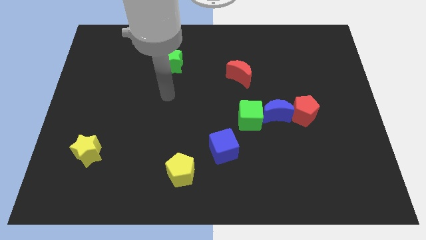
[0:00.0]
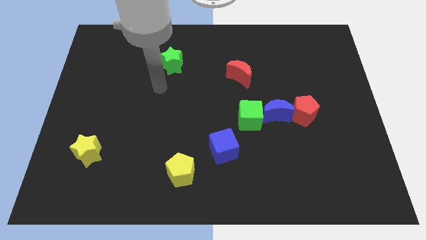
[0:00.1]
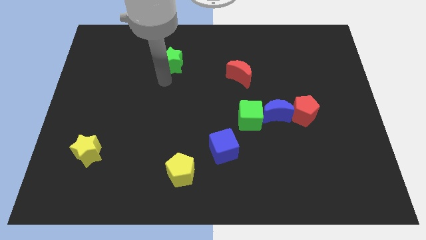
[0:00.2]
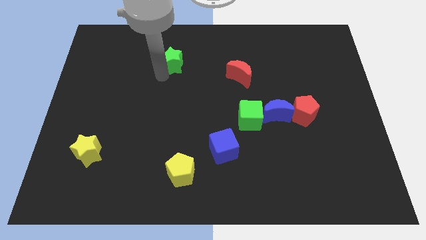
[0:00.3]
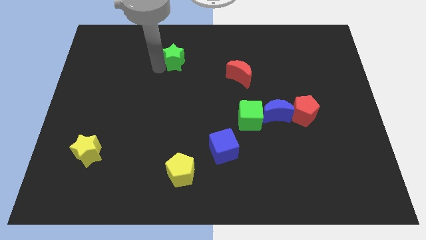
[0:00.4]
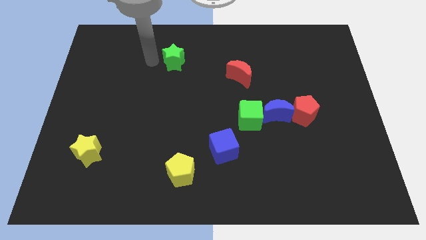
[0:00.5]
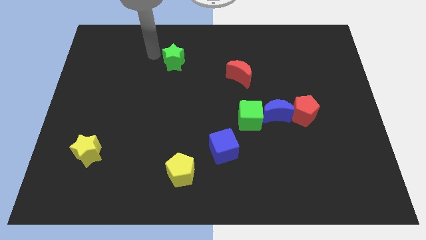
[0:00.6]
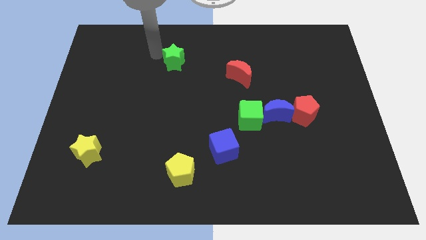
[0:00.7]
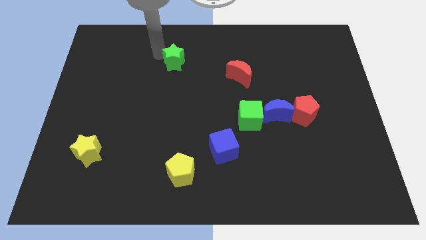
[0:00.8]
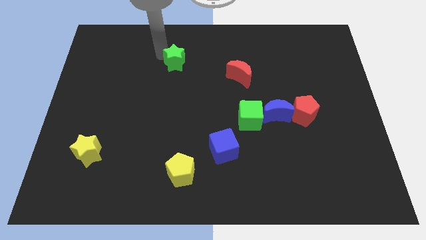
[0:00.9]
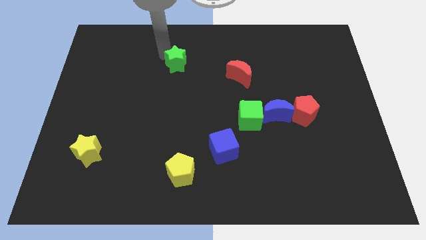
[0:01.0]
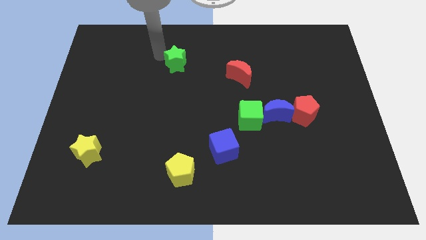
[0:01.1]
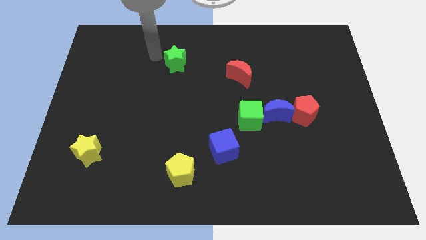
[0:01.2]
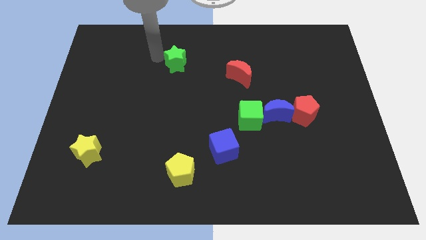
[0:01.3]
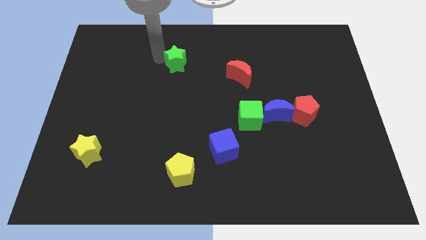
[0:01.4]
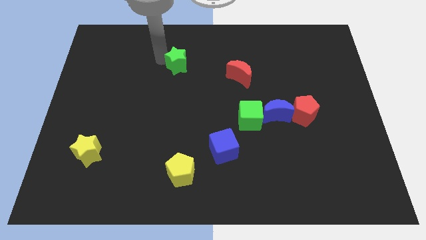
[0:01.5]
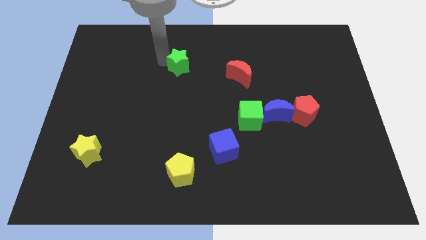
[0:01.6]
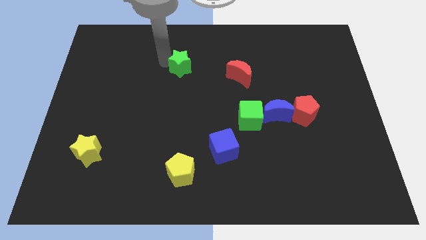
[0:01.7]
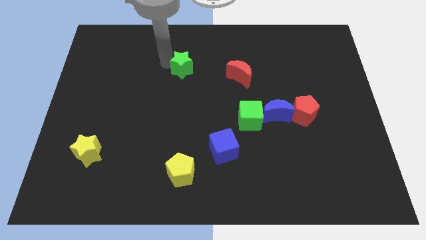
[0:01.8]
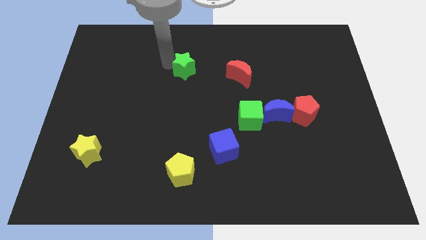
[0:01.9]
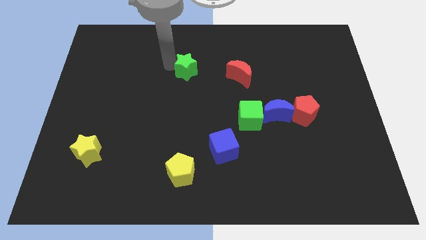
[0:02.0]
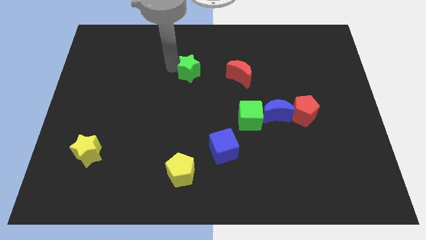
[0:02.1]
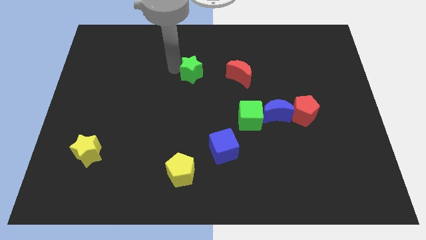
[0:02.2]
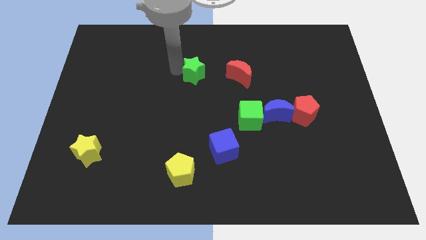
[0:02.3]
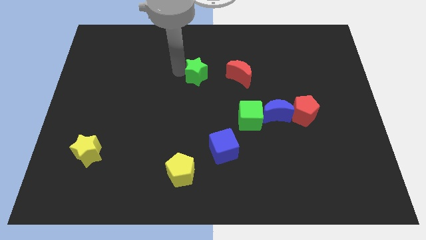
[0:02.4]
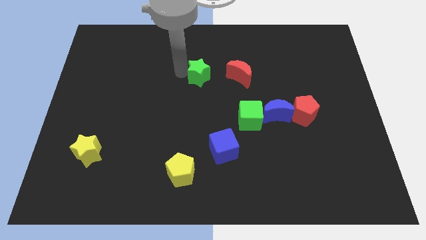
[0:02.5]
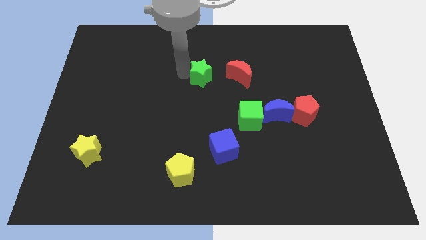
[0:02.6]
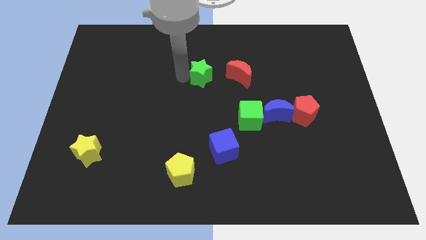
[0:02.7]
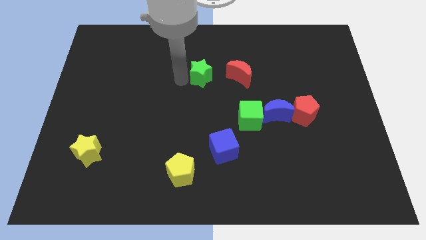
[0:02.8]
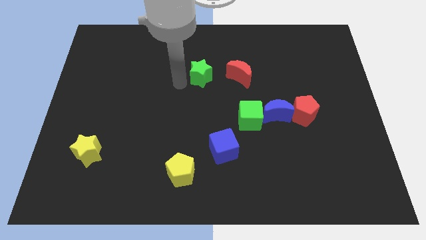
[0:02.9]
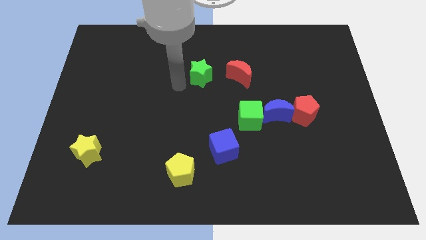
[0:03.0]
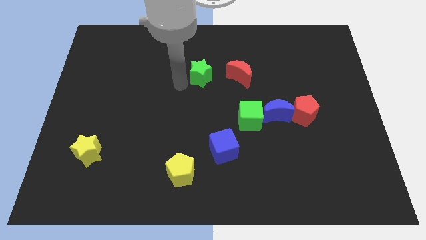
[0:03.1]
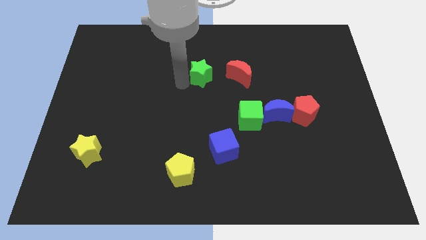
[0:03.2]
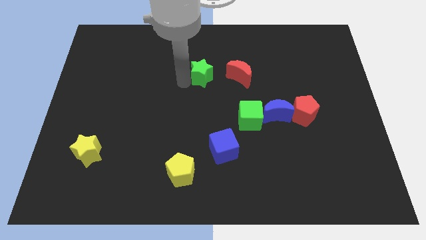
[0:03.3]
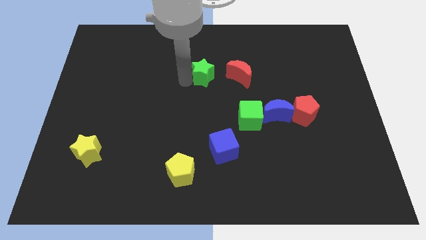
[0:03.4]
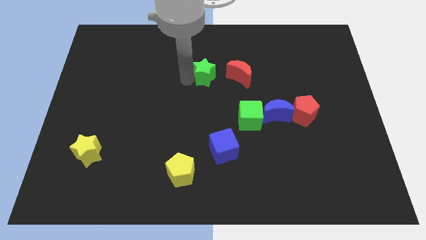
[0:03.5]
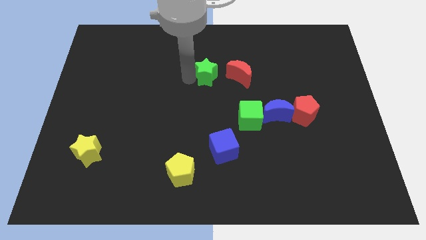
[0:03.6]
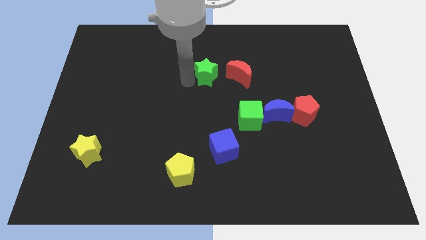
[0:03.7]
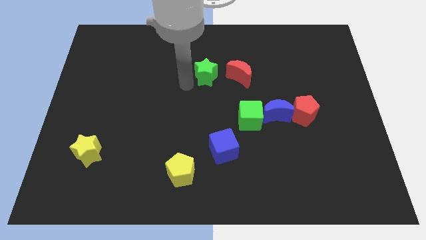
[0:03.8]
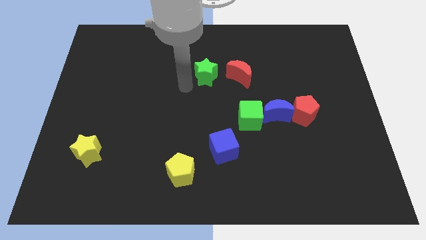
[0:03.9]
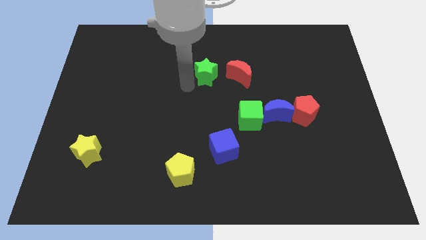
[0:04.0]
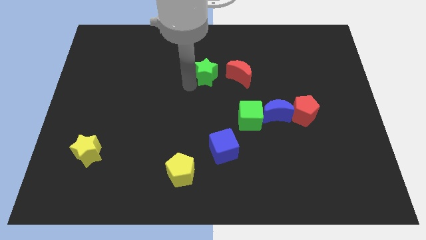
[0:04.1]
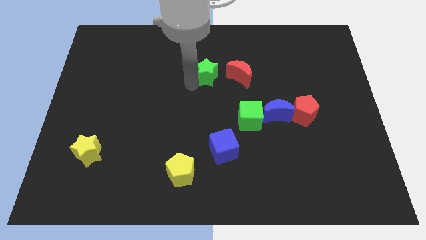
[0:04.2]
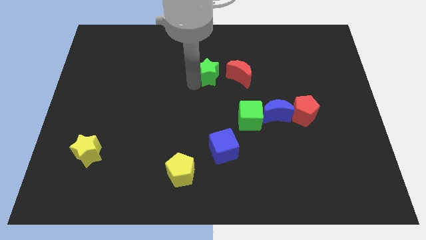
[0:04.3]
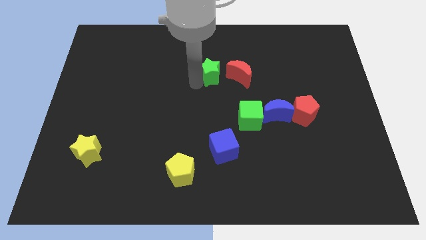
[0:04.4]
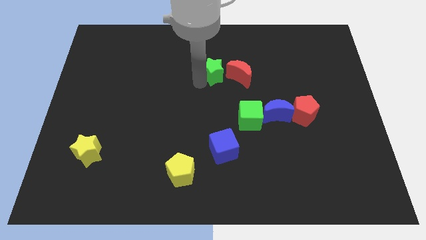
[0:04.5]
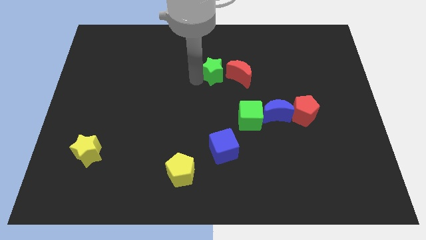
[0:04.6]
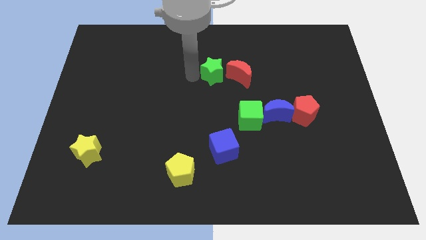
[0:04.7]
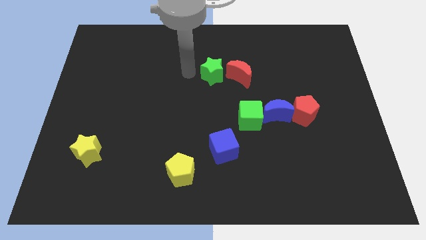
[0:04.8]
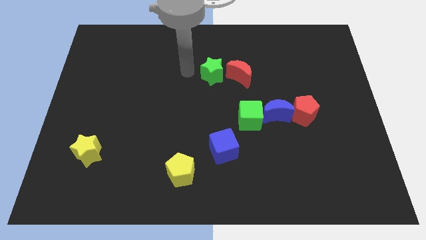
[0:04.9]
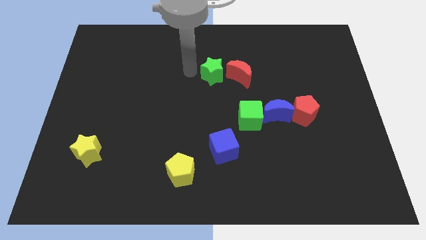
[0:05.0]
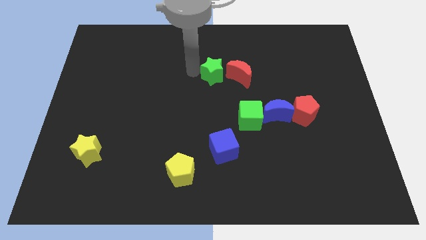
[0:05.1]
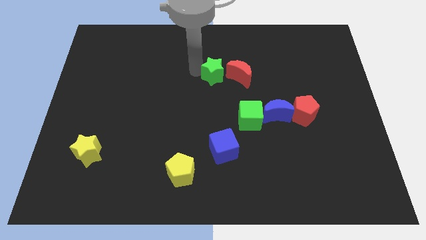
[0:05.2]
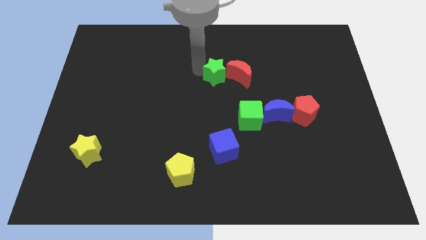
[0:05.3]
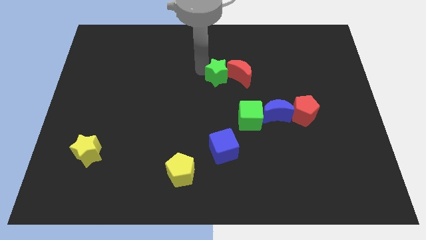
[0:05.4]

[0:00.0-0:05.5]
put the green star next to the red moon

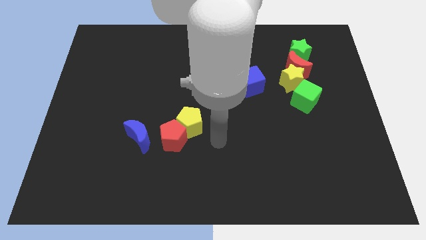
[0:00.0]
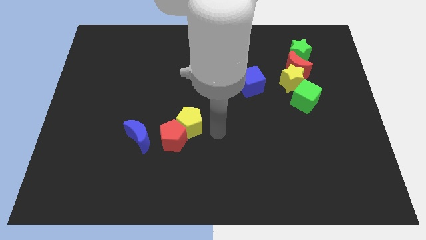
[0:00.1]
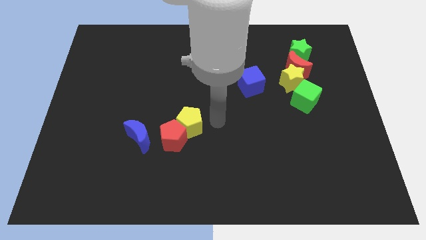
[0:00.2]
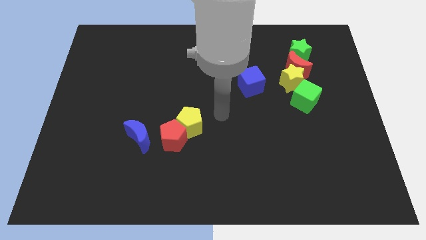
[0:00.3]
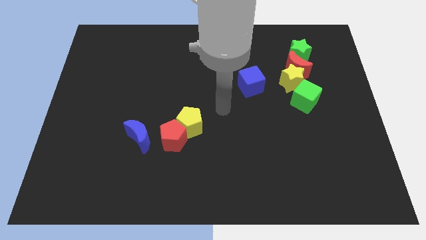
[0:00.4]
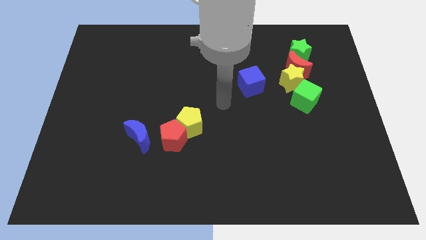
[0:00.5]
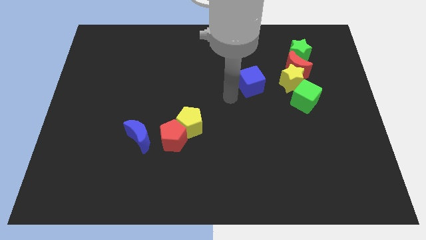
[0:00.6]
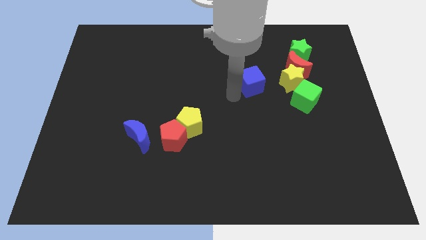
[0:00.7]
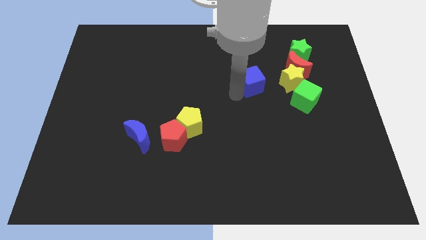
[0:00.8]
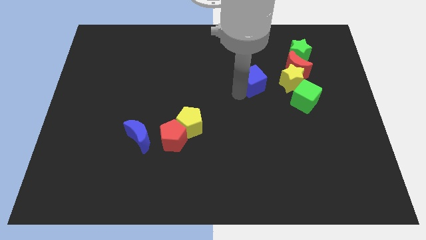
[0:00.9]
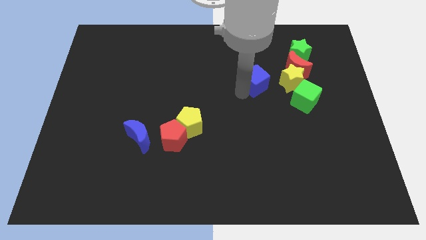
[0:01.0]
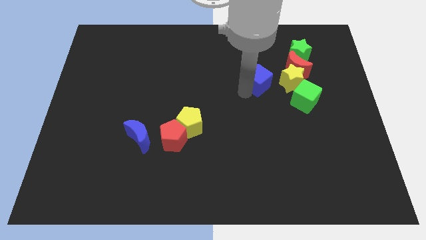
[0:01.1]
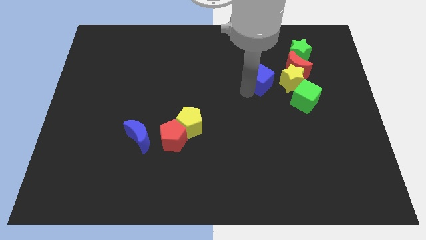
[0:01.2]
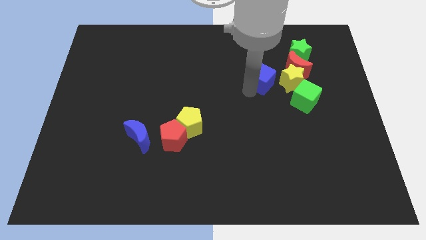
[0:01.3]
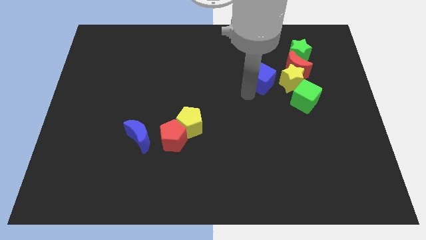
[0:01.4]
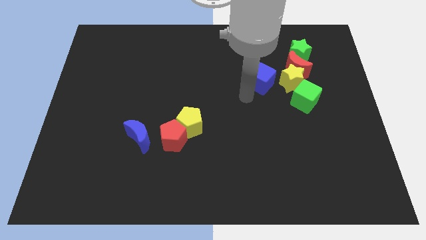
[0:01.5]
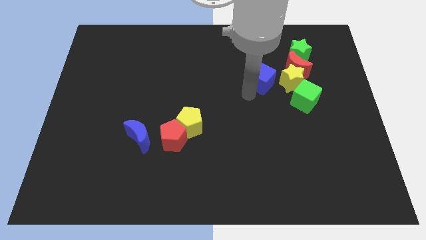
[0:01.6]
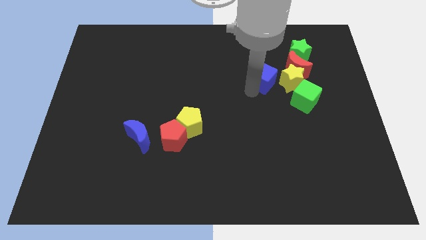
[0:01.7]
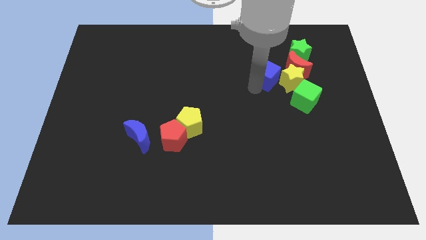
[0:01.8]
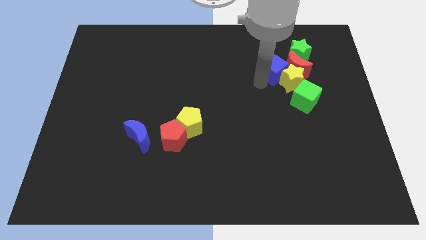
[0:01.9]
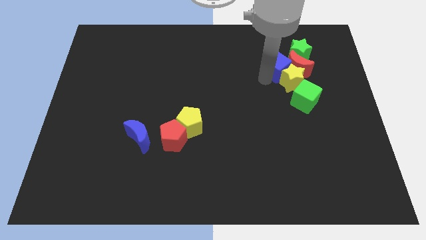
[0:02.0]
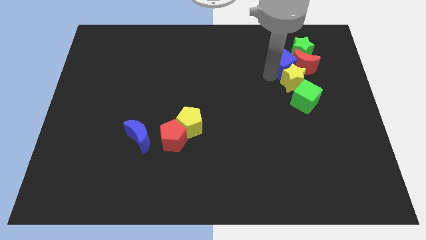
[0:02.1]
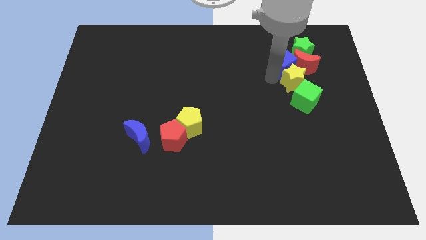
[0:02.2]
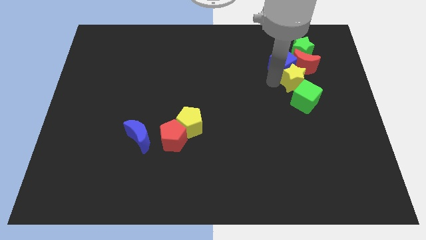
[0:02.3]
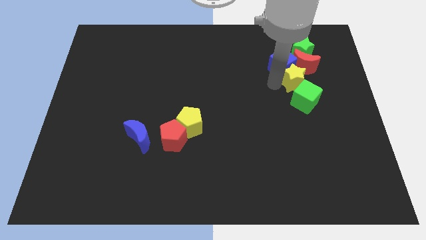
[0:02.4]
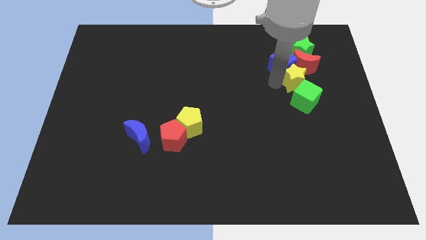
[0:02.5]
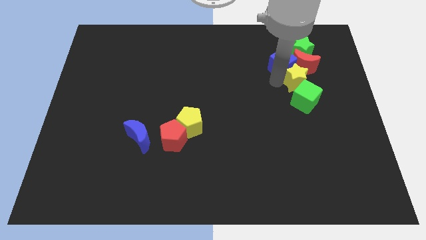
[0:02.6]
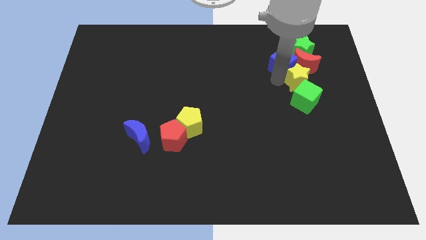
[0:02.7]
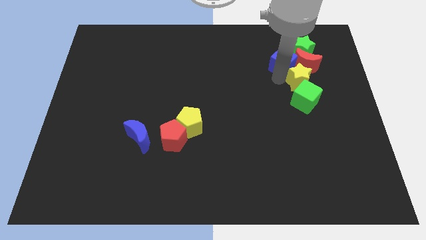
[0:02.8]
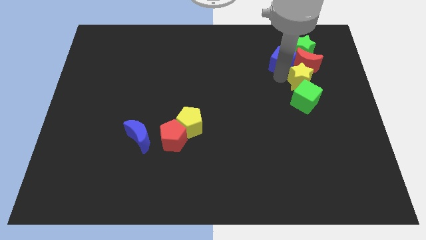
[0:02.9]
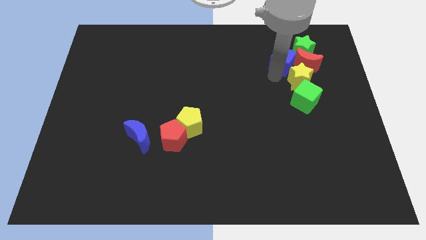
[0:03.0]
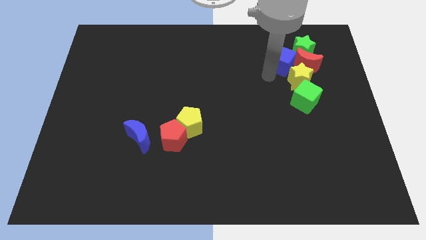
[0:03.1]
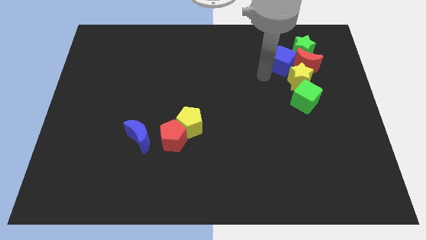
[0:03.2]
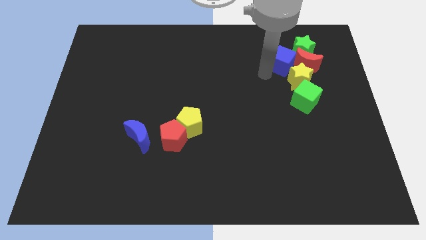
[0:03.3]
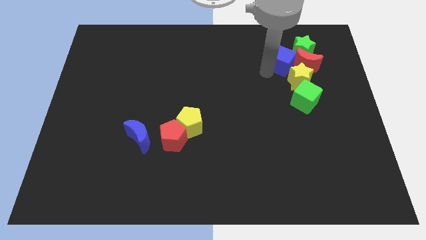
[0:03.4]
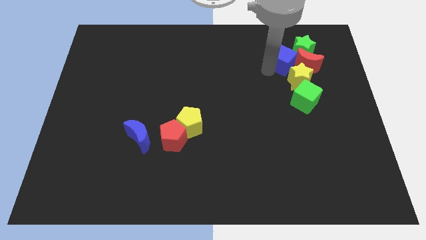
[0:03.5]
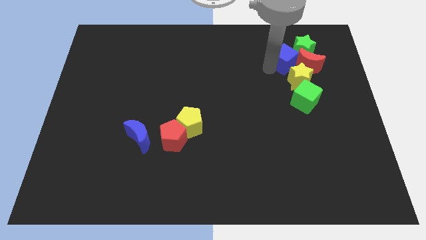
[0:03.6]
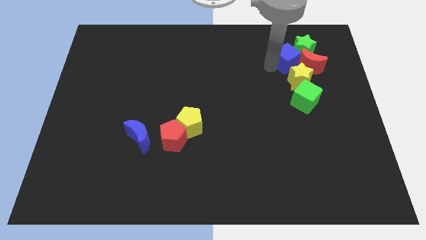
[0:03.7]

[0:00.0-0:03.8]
push the blue cube close to the green star
